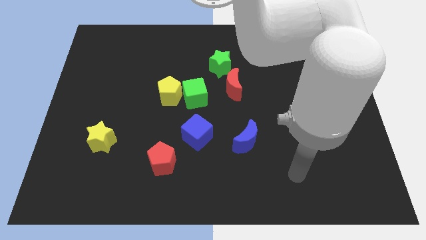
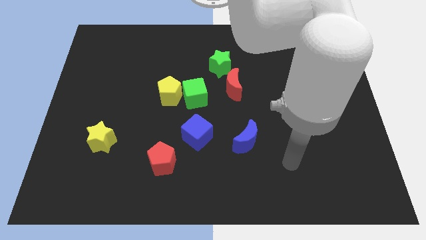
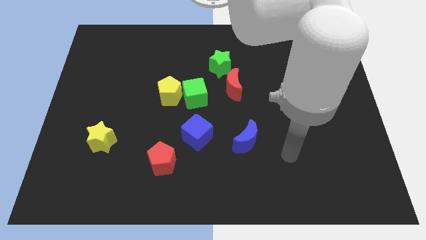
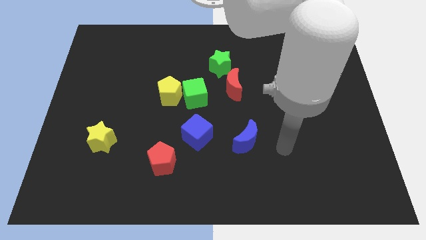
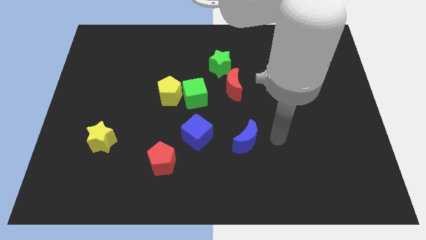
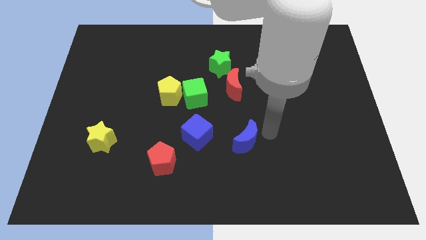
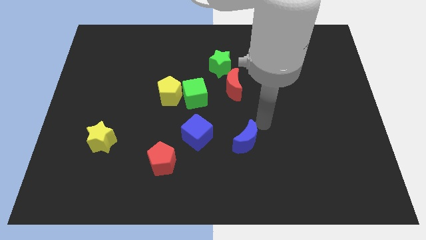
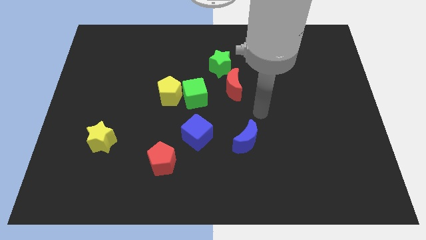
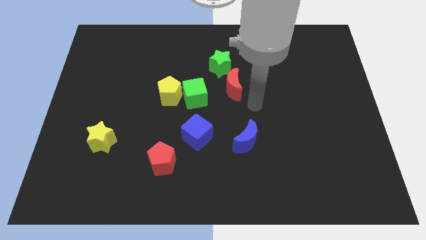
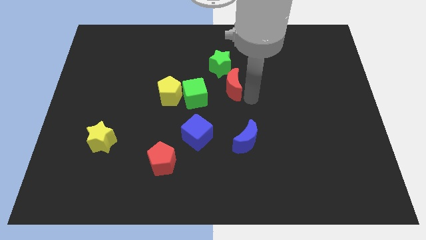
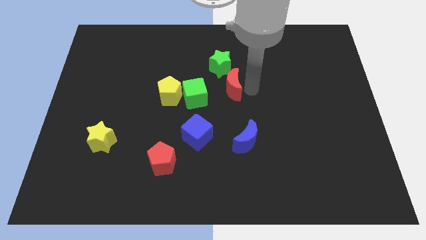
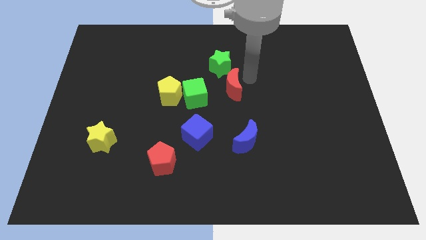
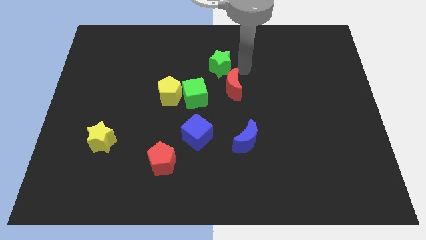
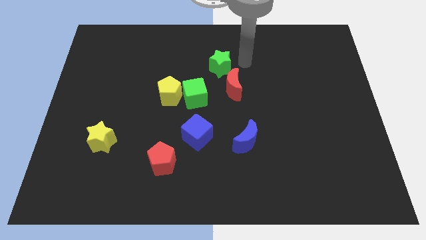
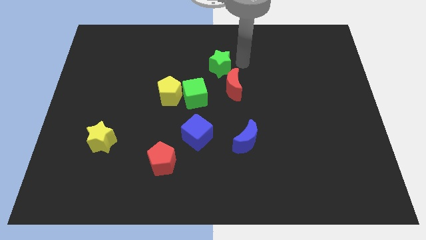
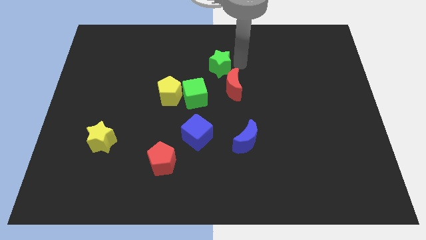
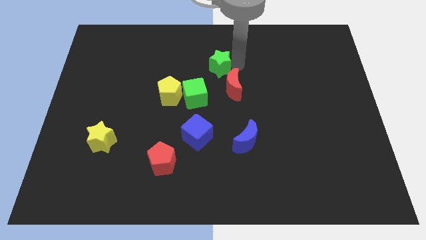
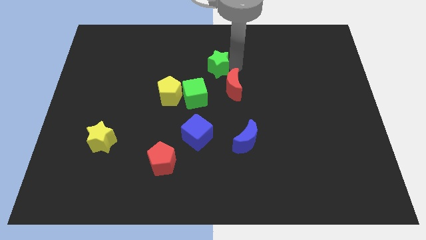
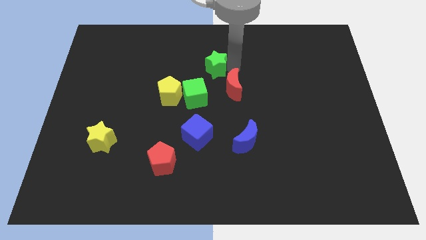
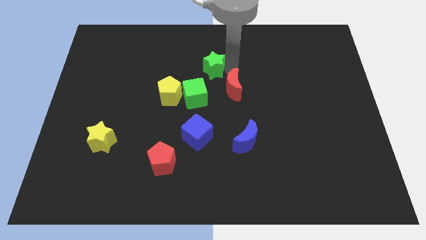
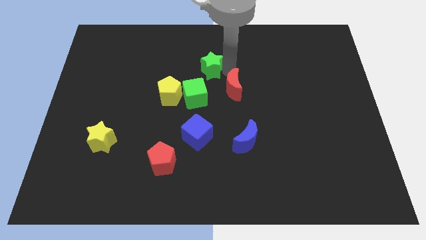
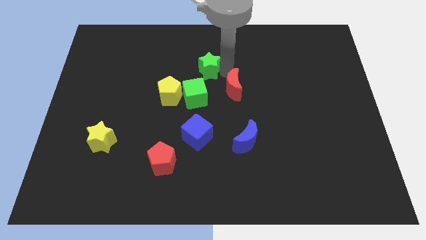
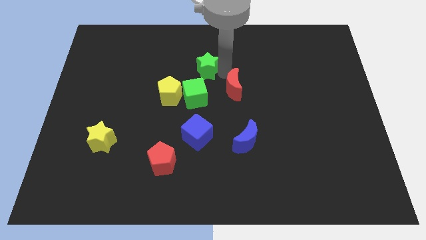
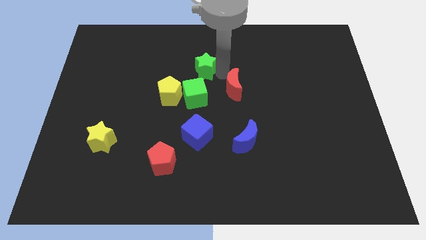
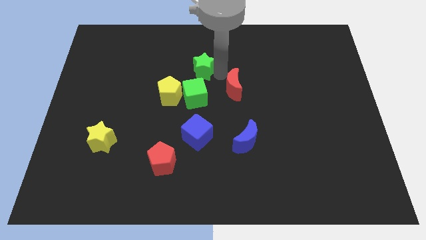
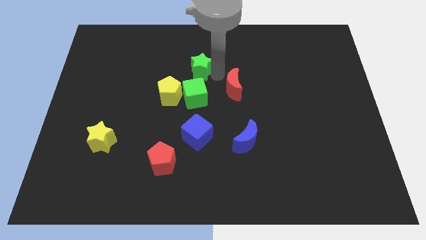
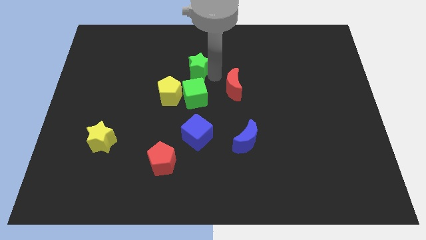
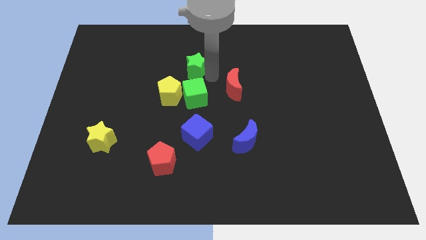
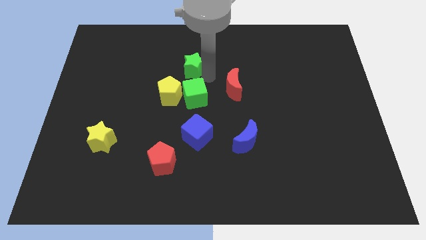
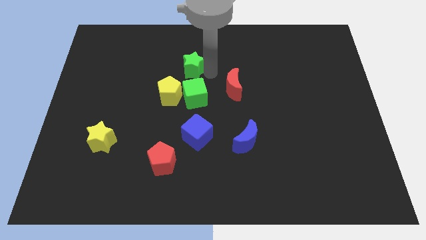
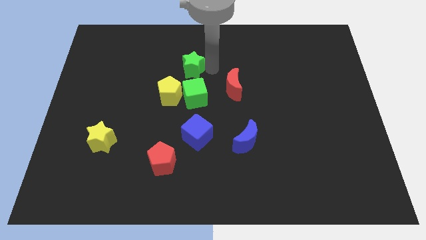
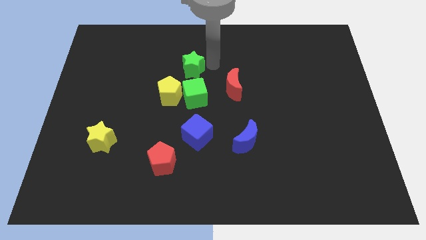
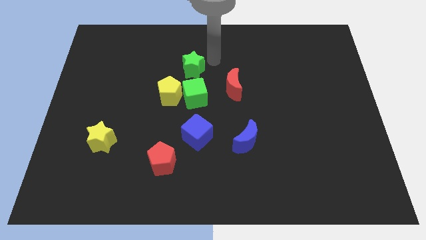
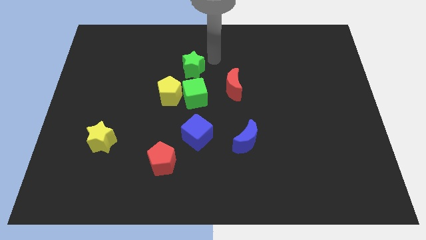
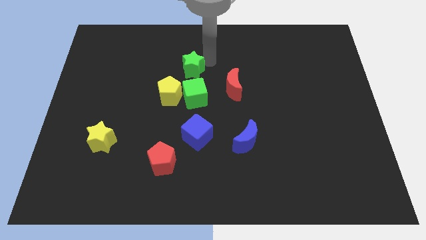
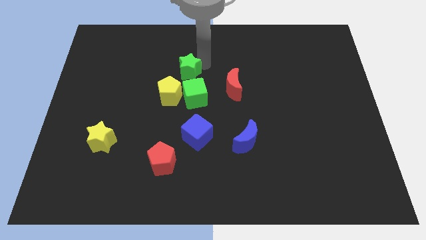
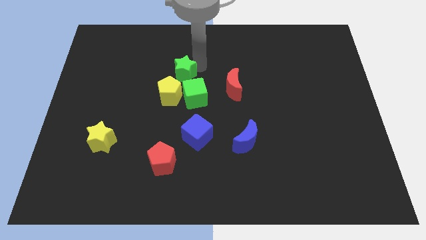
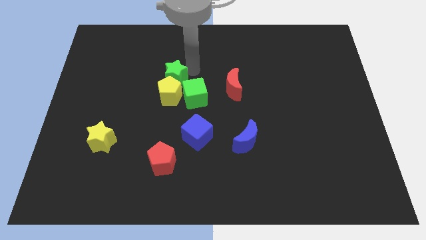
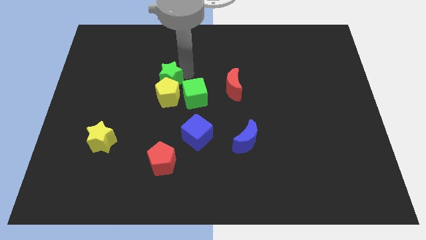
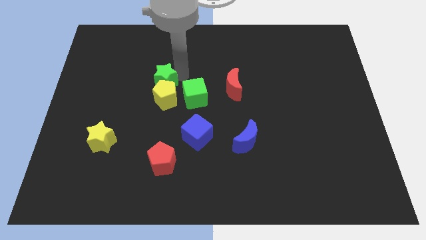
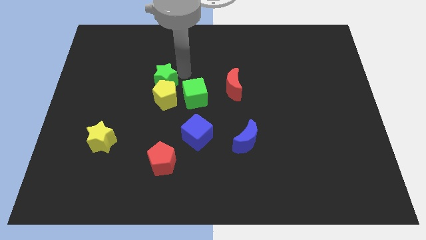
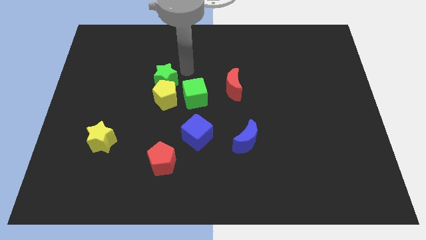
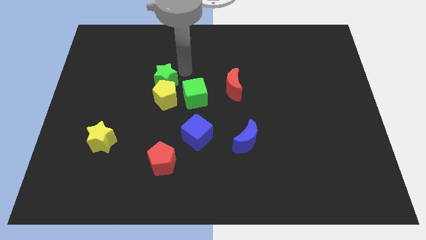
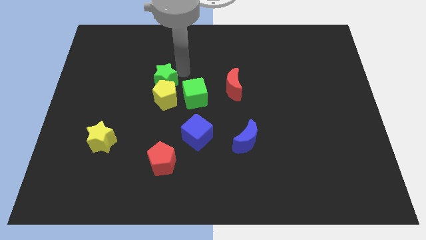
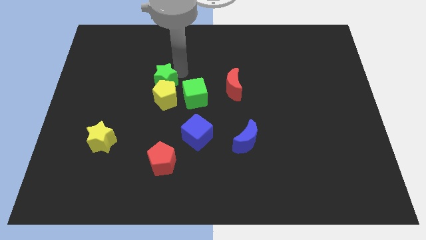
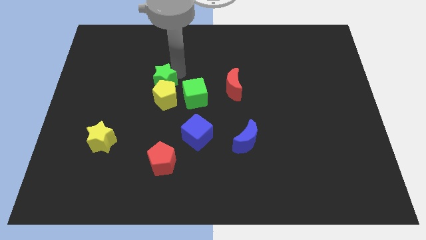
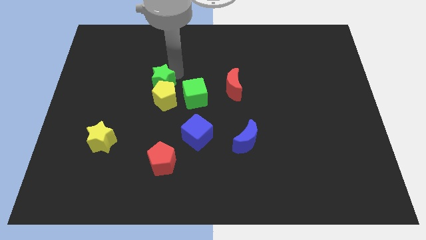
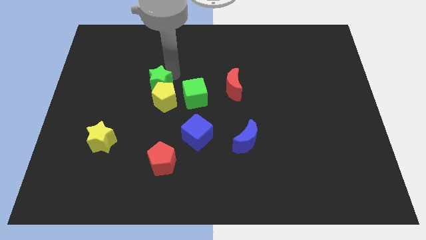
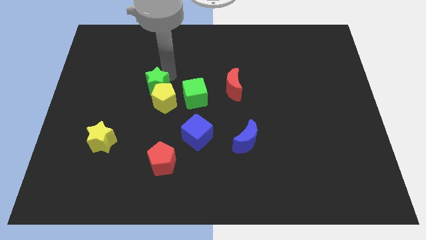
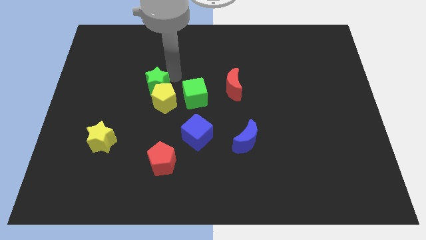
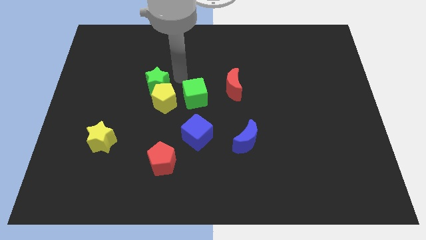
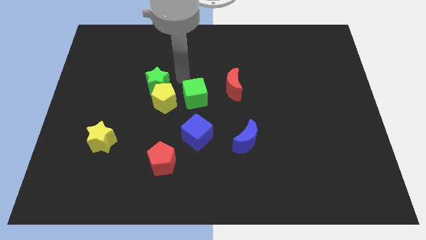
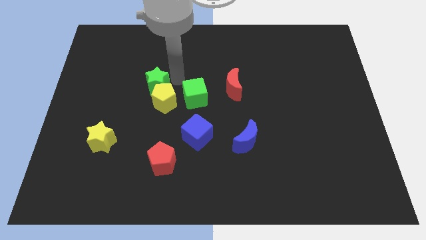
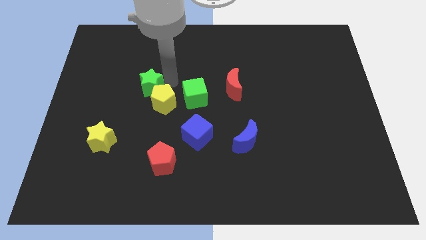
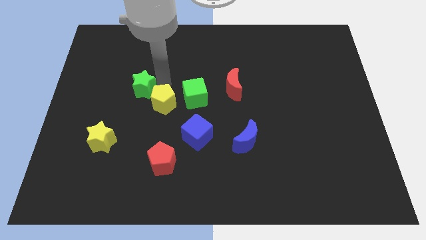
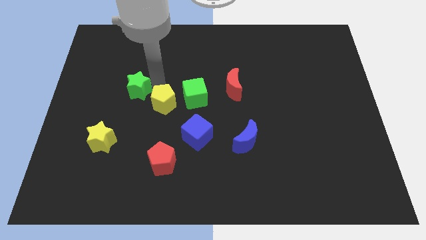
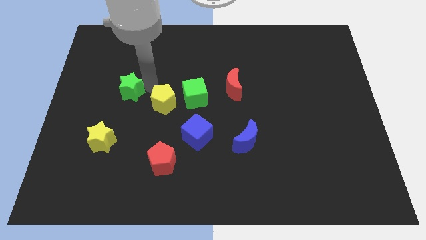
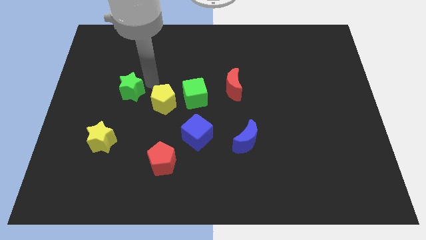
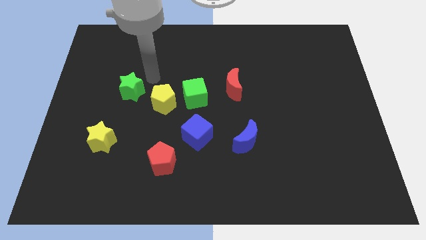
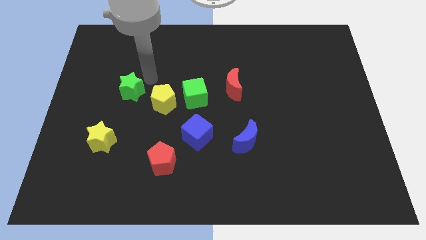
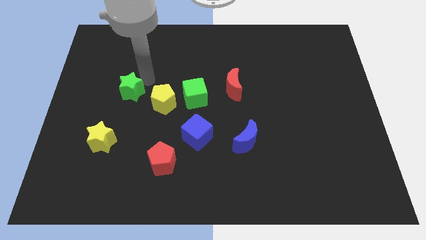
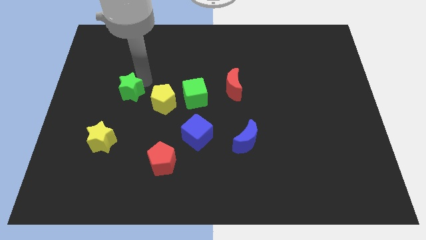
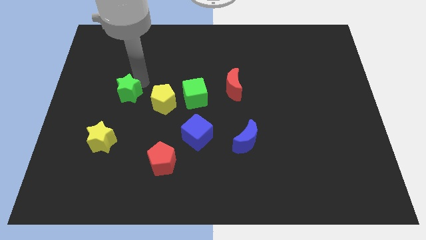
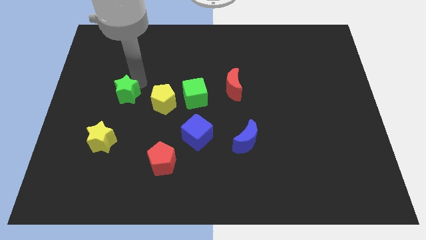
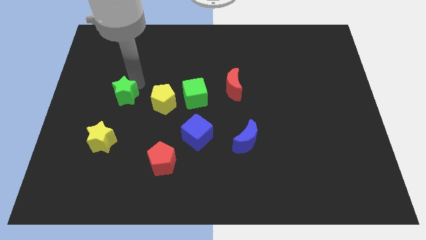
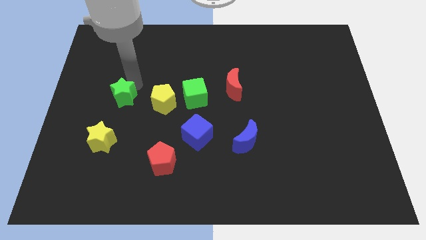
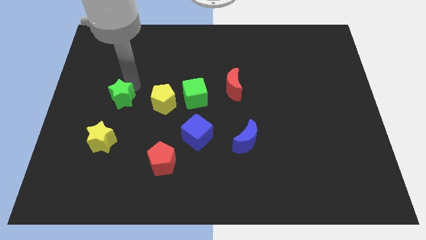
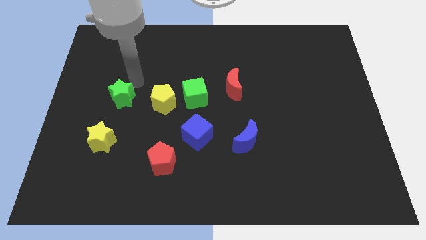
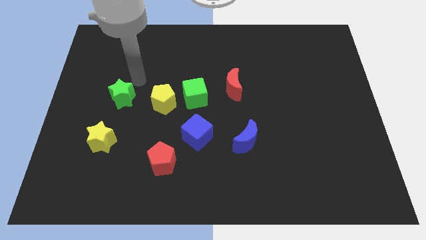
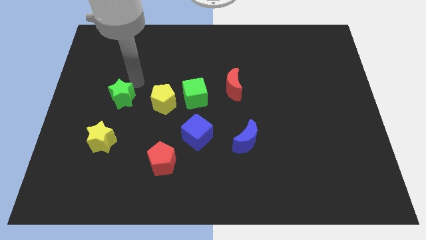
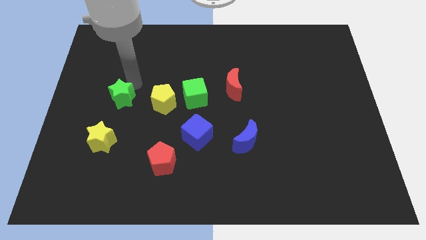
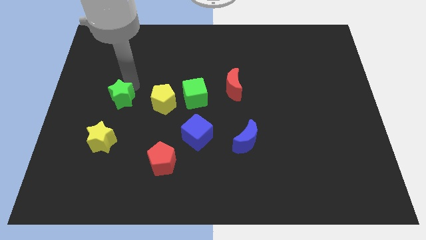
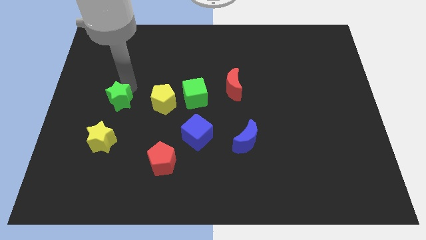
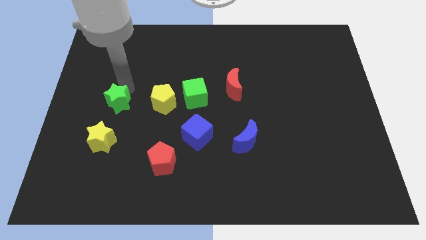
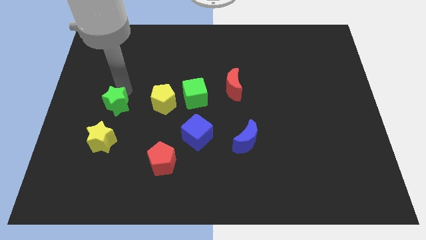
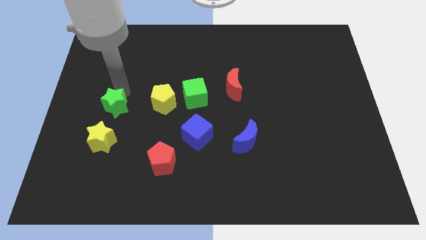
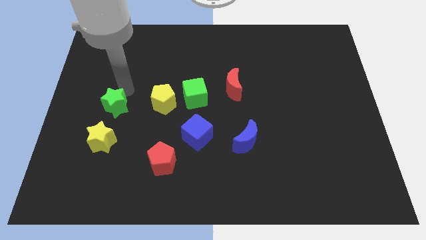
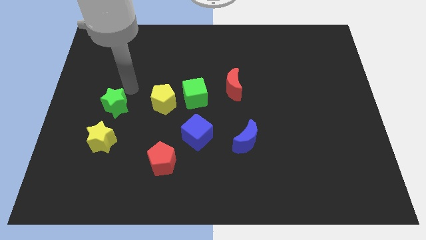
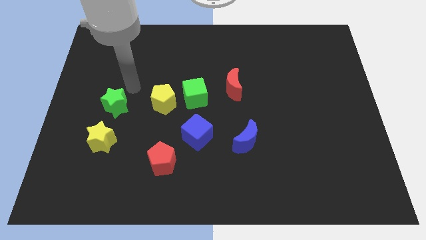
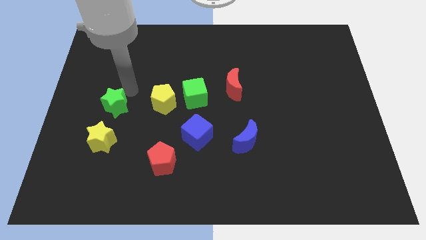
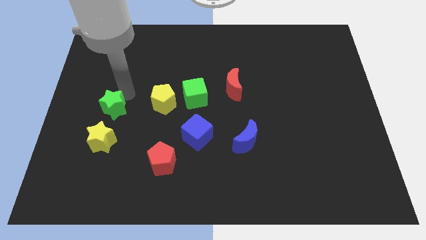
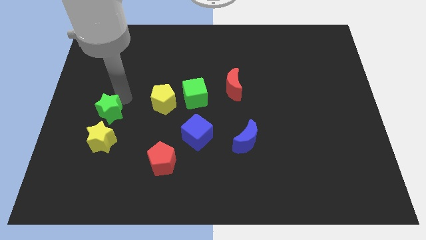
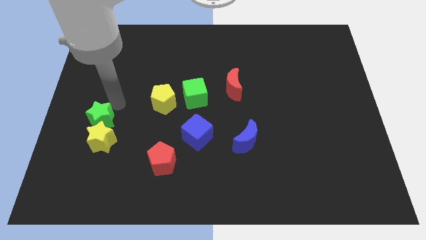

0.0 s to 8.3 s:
slide the green star to the yellow star
